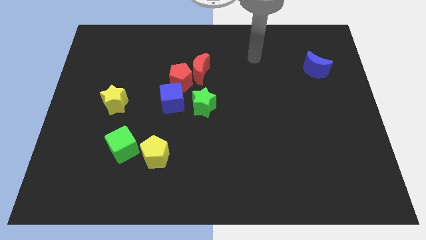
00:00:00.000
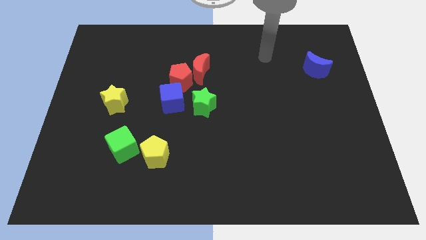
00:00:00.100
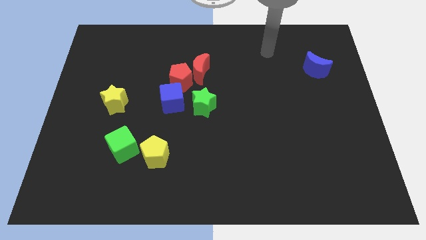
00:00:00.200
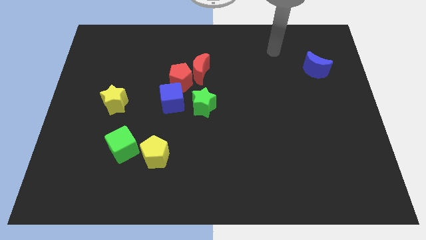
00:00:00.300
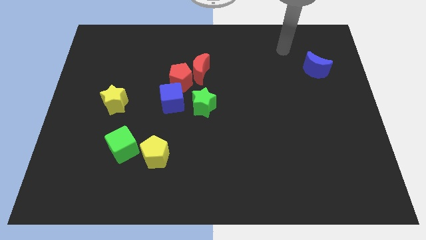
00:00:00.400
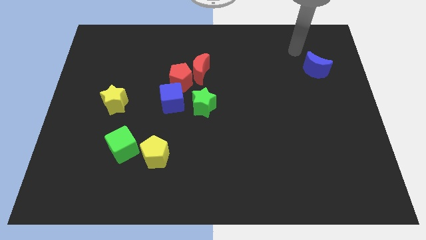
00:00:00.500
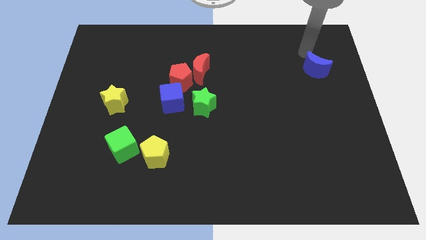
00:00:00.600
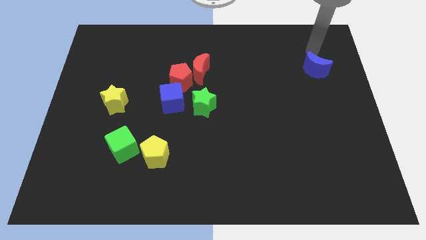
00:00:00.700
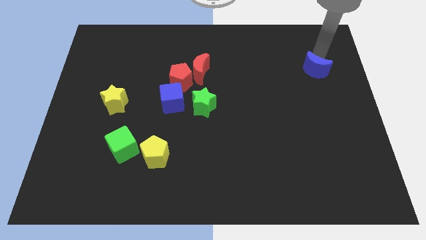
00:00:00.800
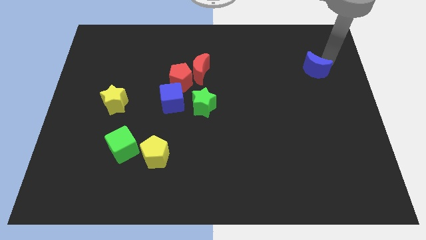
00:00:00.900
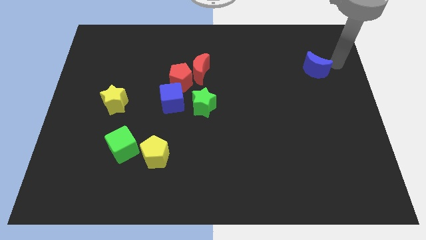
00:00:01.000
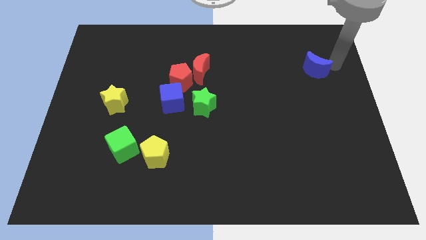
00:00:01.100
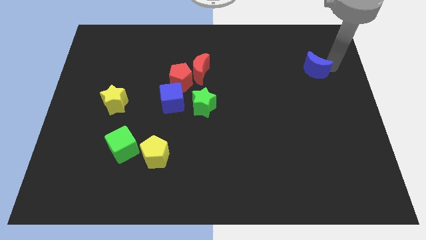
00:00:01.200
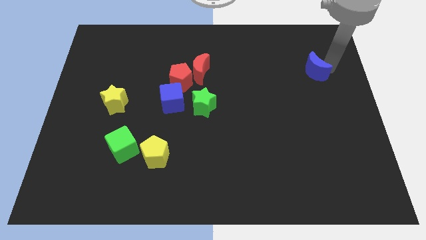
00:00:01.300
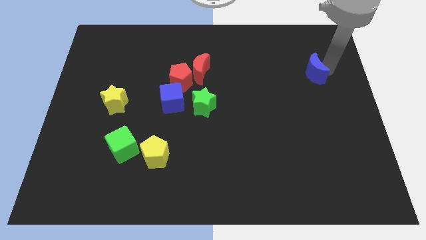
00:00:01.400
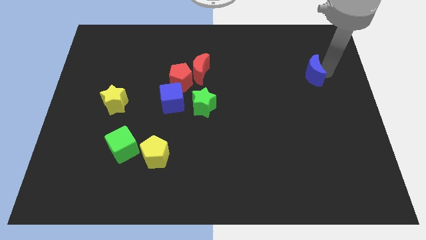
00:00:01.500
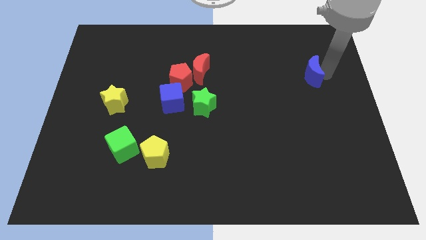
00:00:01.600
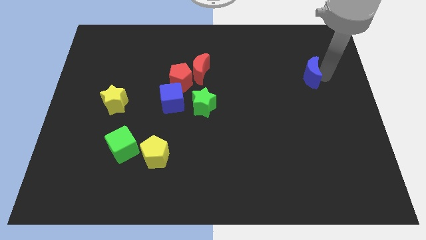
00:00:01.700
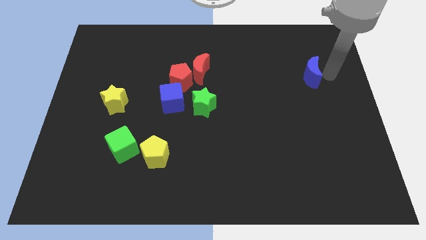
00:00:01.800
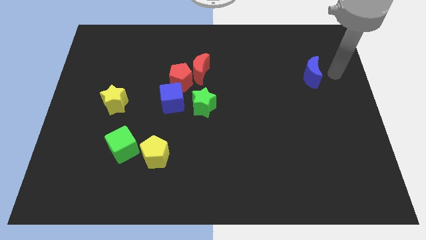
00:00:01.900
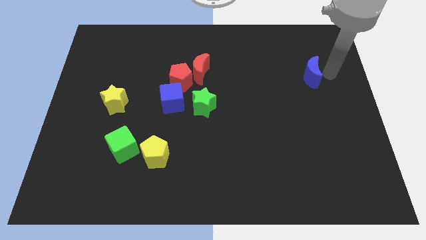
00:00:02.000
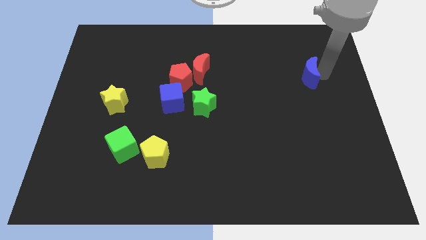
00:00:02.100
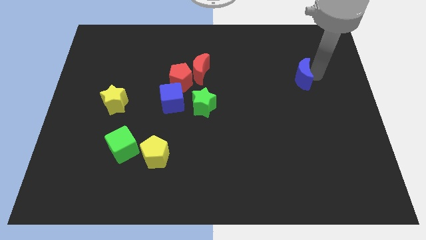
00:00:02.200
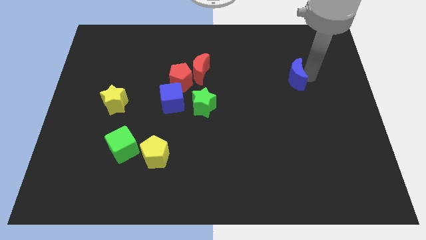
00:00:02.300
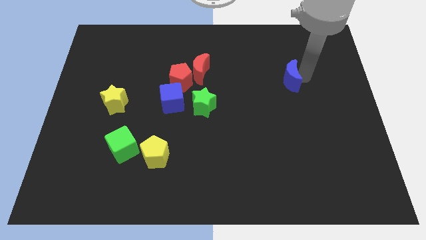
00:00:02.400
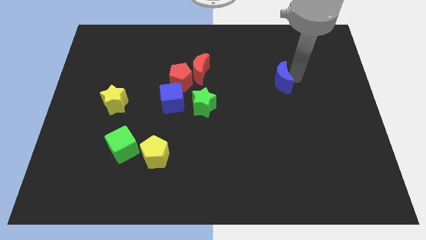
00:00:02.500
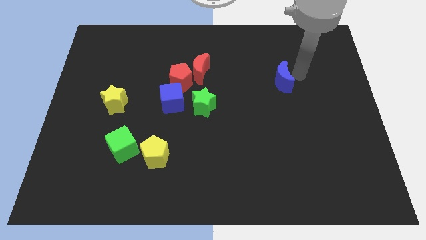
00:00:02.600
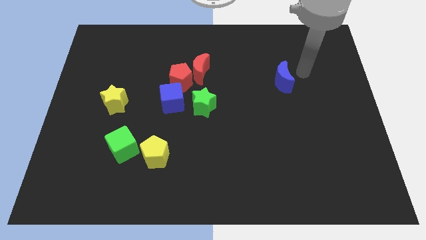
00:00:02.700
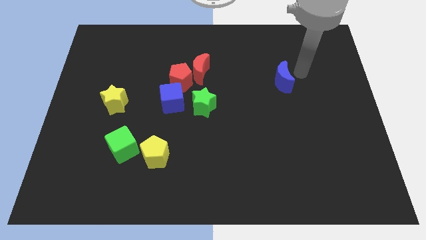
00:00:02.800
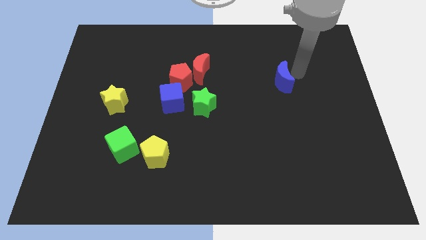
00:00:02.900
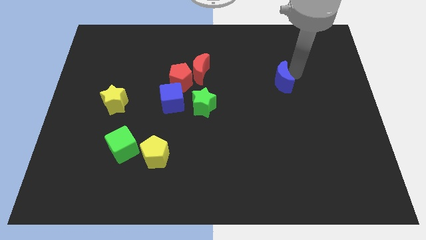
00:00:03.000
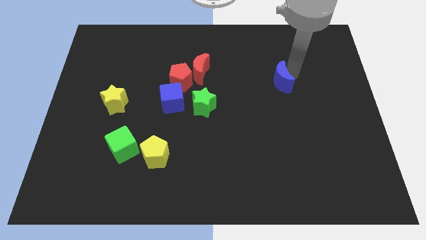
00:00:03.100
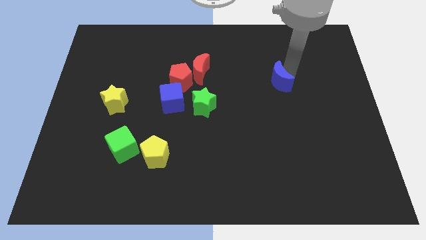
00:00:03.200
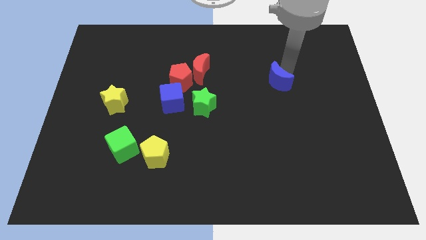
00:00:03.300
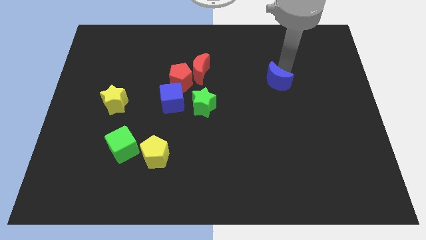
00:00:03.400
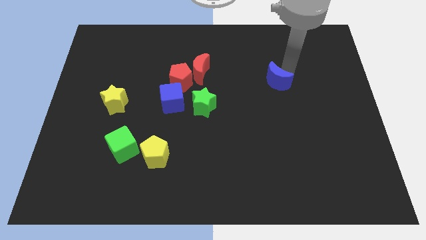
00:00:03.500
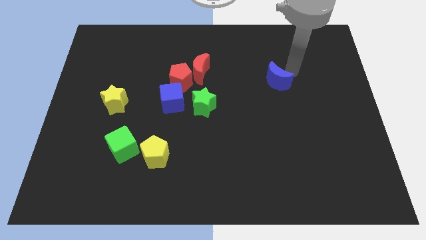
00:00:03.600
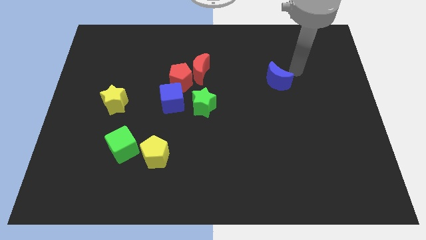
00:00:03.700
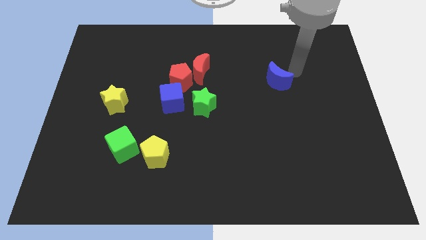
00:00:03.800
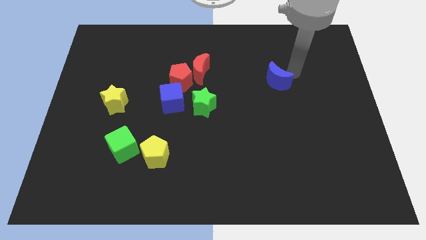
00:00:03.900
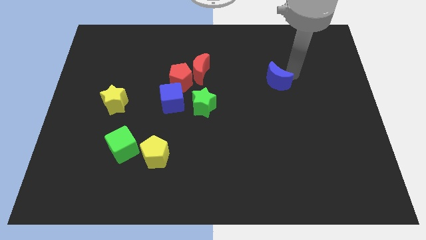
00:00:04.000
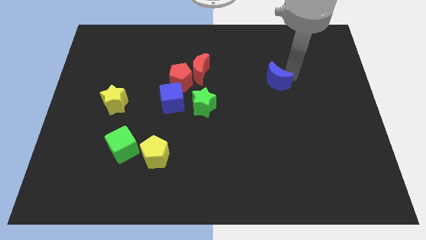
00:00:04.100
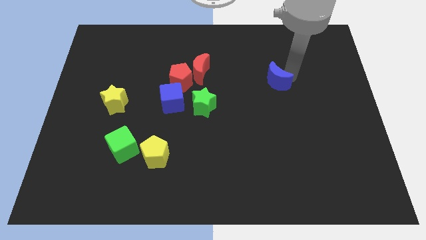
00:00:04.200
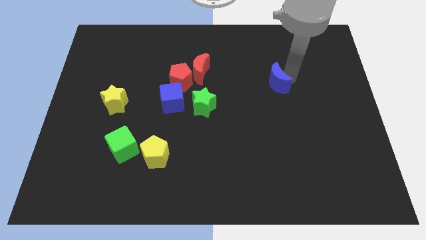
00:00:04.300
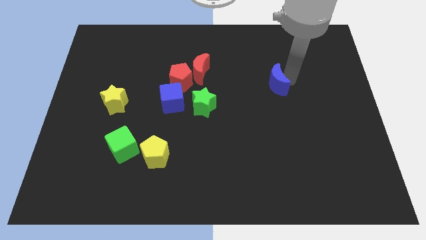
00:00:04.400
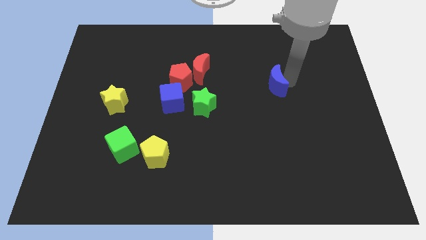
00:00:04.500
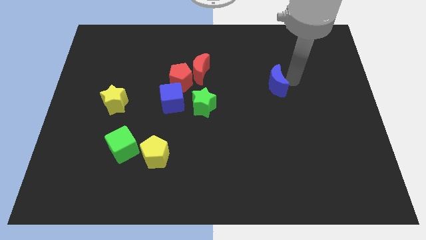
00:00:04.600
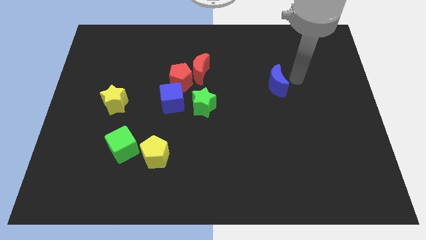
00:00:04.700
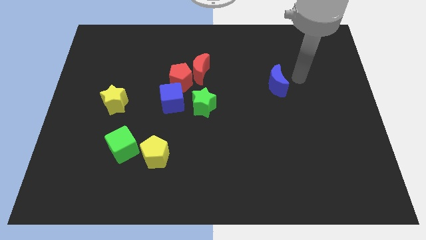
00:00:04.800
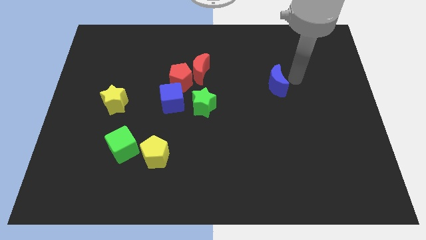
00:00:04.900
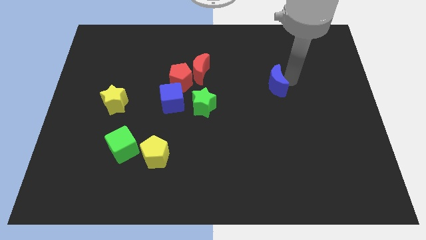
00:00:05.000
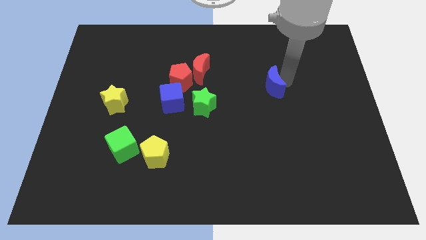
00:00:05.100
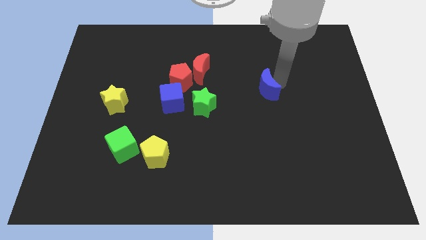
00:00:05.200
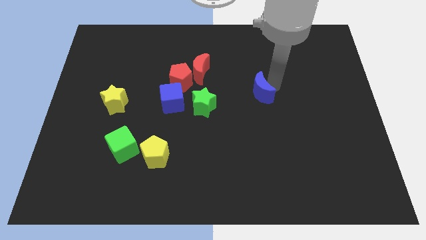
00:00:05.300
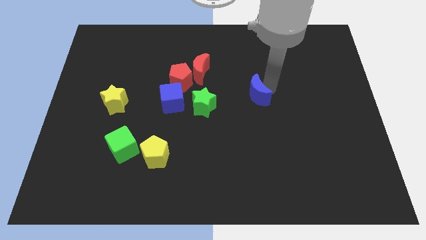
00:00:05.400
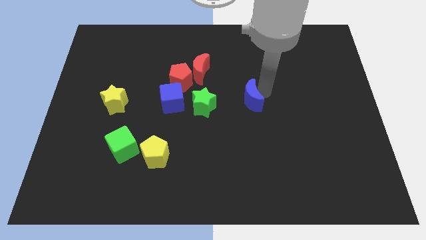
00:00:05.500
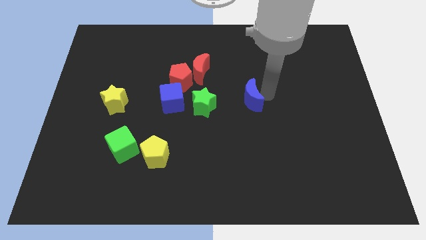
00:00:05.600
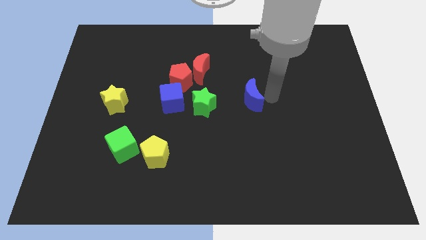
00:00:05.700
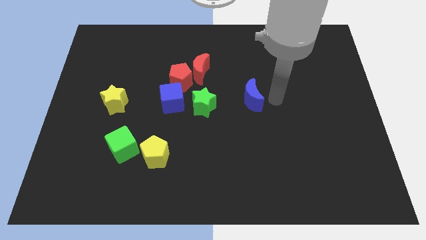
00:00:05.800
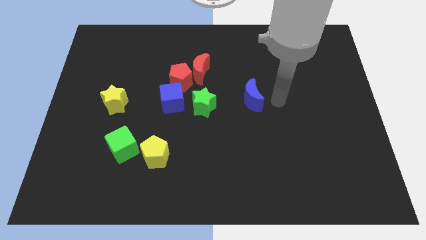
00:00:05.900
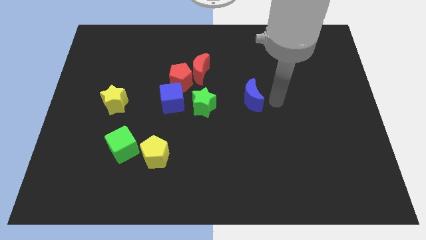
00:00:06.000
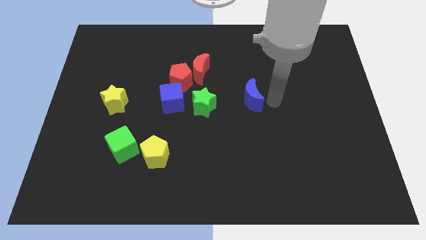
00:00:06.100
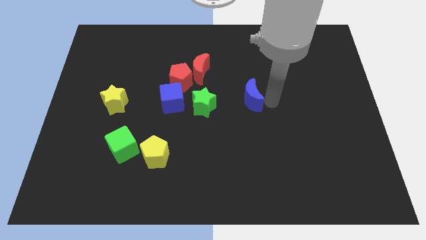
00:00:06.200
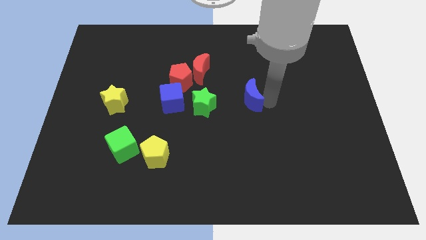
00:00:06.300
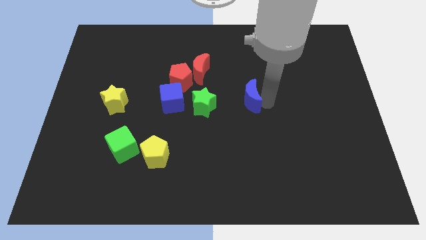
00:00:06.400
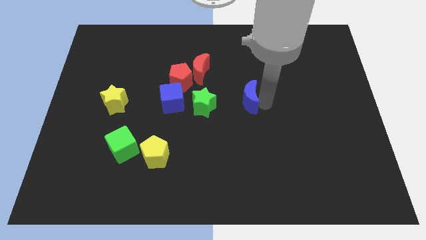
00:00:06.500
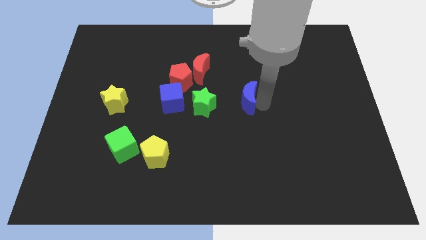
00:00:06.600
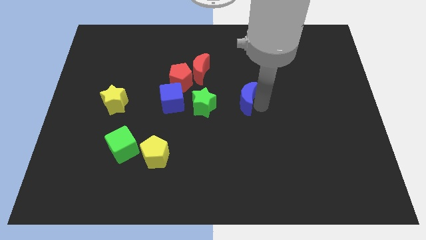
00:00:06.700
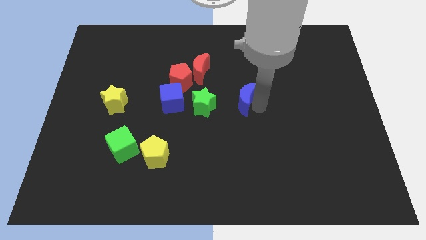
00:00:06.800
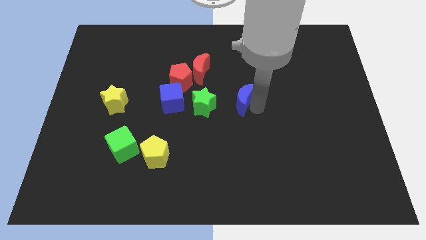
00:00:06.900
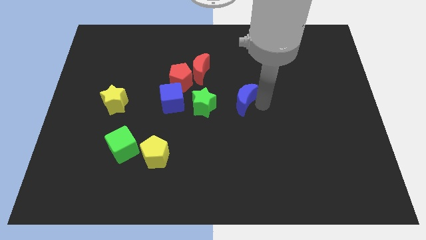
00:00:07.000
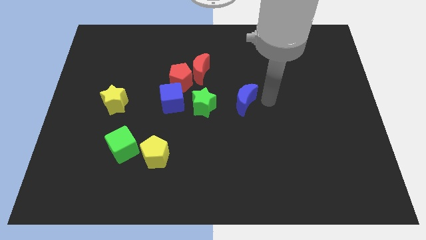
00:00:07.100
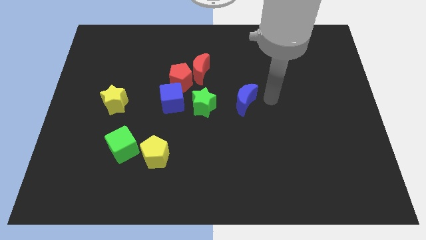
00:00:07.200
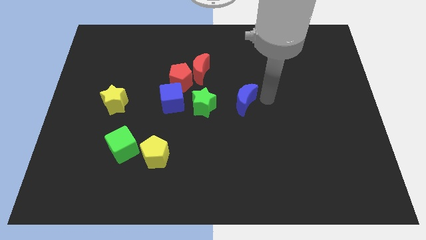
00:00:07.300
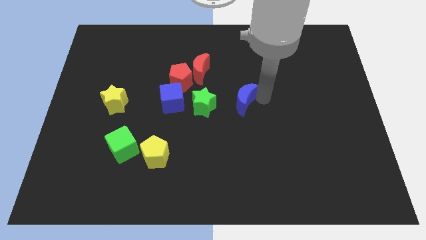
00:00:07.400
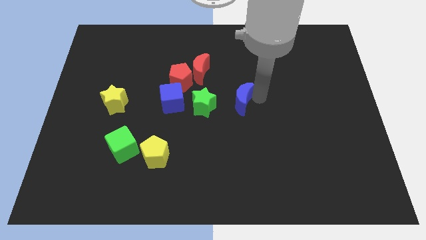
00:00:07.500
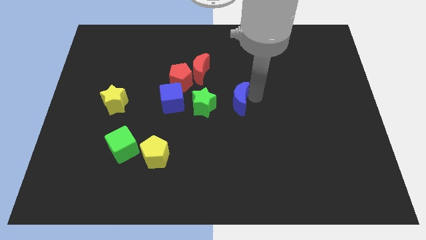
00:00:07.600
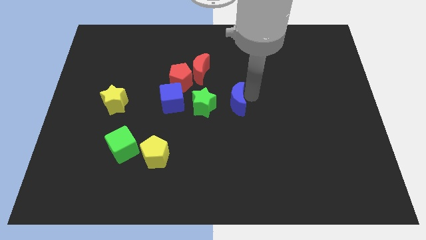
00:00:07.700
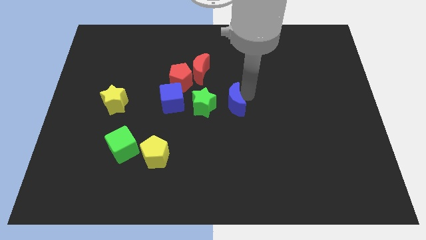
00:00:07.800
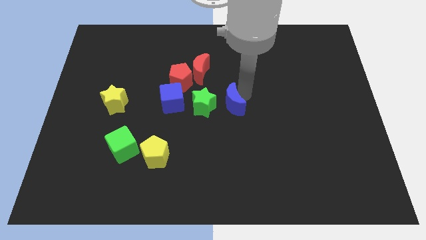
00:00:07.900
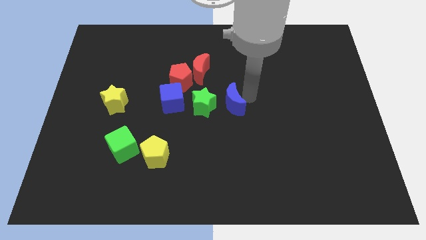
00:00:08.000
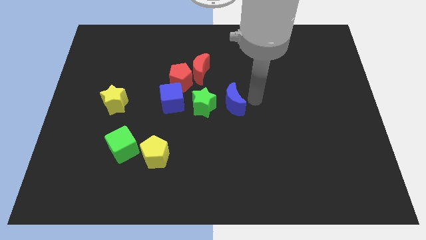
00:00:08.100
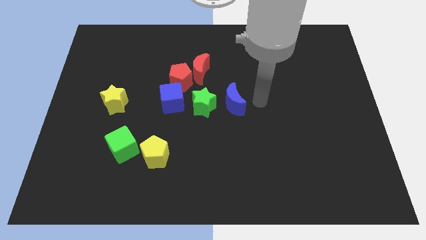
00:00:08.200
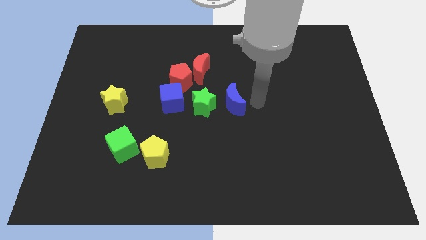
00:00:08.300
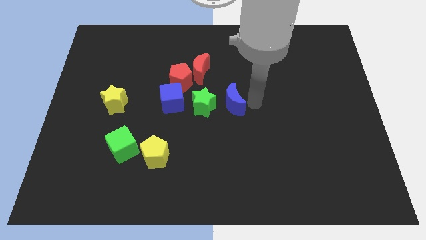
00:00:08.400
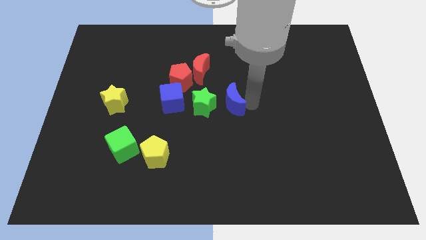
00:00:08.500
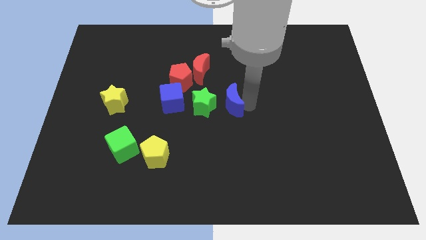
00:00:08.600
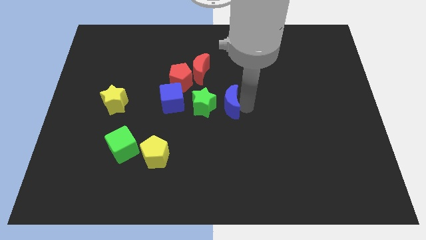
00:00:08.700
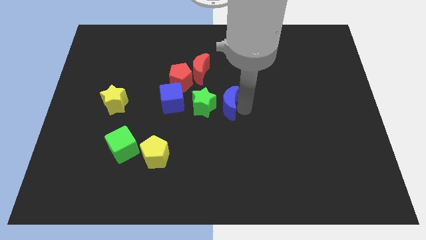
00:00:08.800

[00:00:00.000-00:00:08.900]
move the blue moon next to the green star
